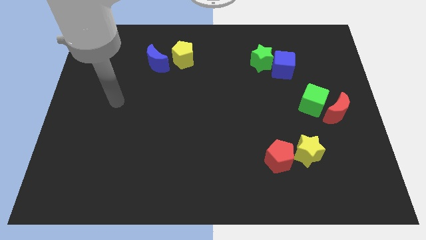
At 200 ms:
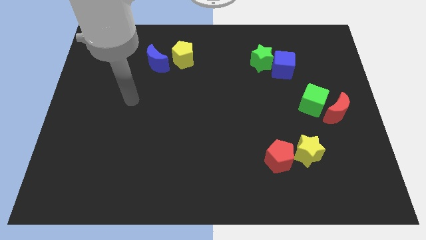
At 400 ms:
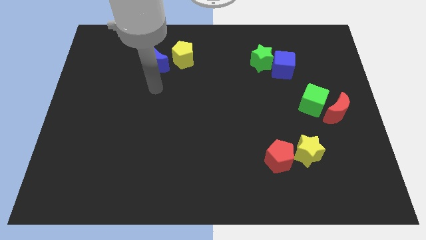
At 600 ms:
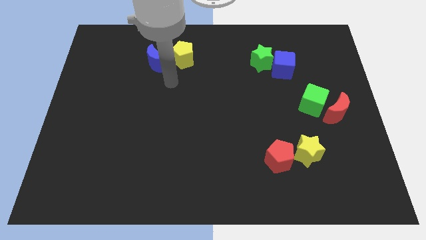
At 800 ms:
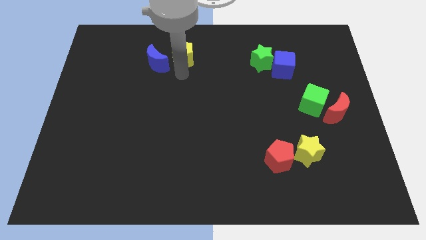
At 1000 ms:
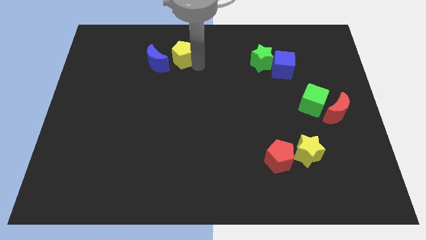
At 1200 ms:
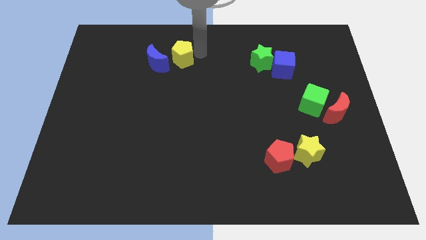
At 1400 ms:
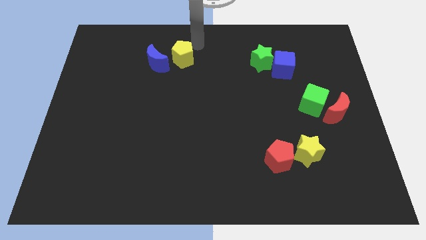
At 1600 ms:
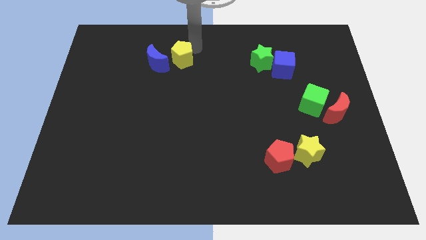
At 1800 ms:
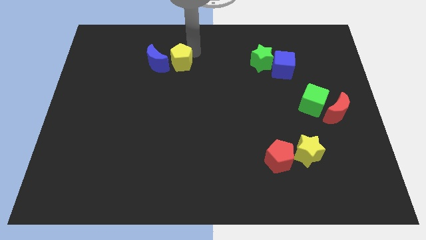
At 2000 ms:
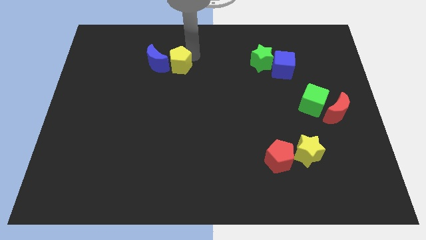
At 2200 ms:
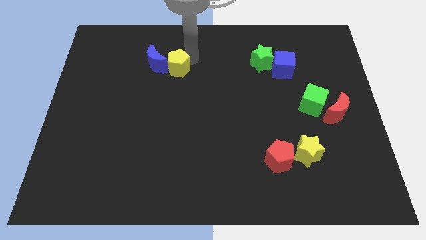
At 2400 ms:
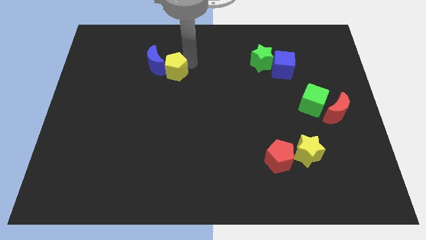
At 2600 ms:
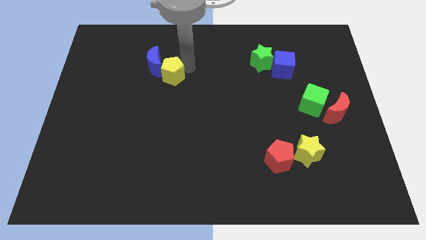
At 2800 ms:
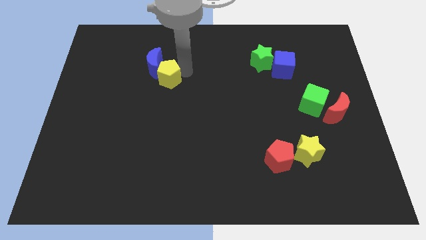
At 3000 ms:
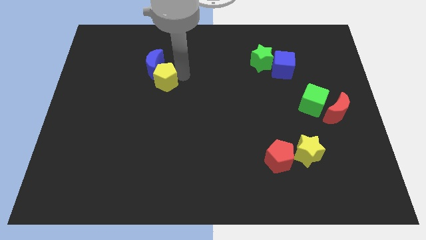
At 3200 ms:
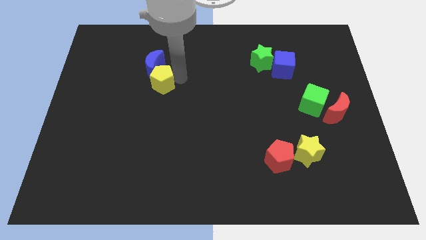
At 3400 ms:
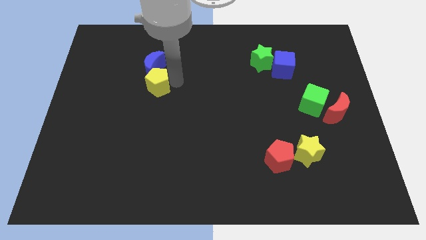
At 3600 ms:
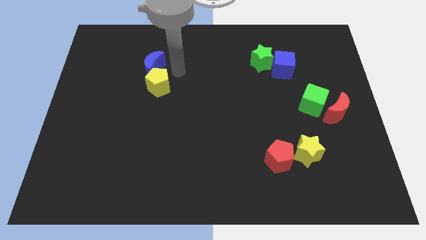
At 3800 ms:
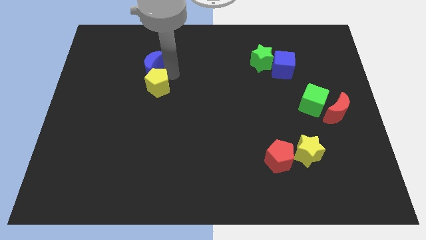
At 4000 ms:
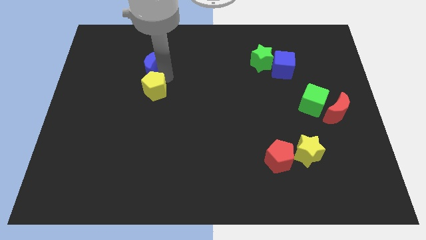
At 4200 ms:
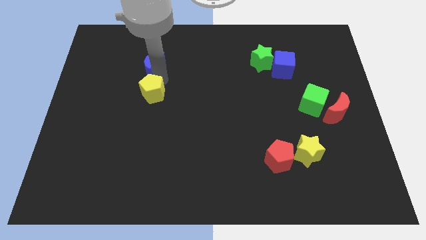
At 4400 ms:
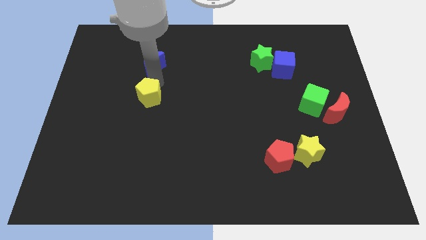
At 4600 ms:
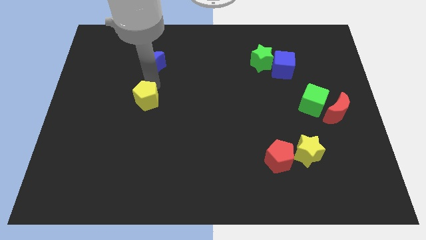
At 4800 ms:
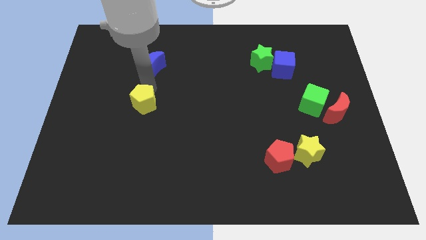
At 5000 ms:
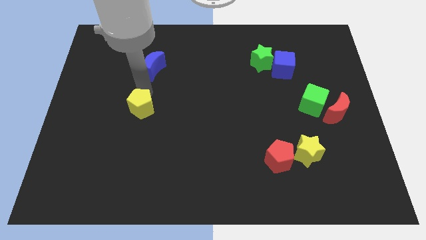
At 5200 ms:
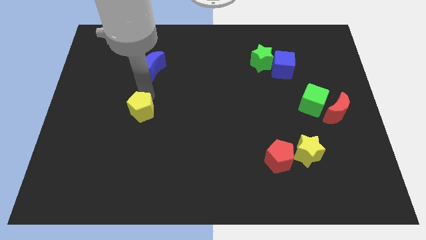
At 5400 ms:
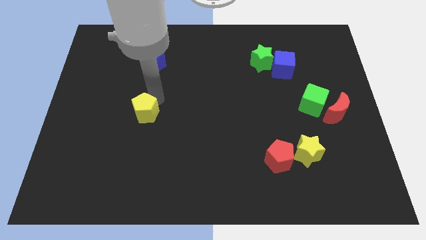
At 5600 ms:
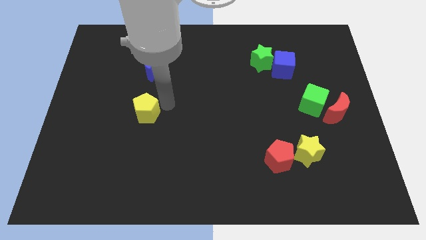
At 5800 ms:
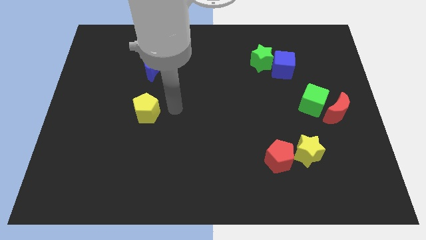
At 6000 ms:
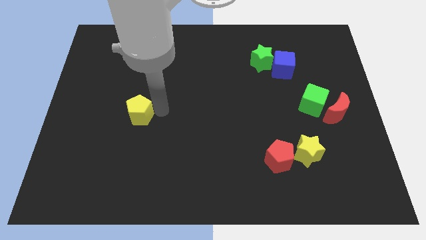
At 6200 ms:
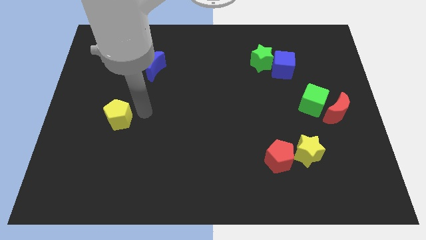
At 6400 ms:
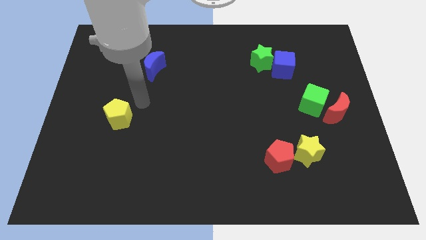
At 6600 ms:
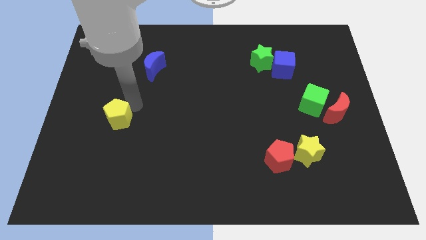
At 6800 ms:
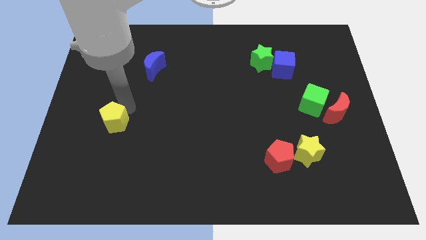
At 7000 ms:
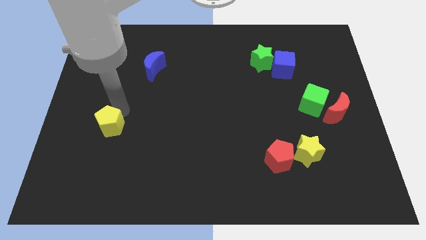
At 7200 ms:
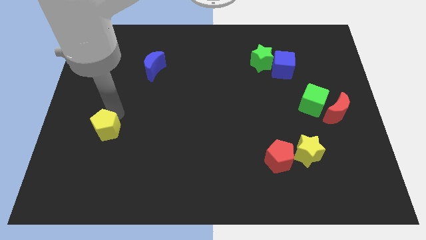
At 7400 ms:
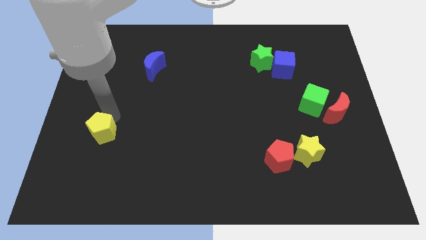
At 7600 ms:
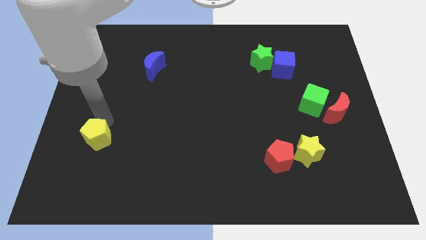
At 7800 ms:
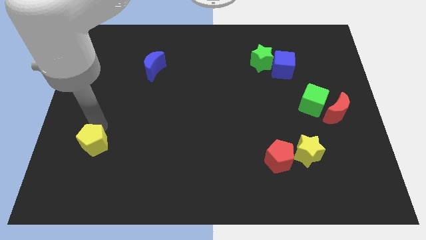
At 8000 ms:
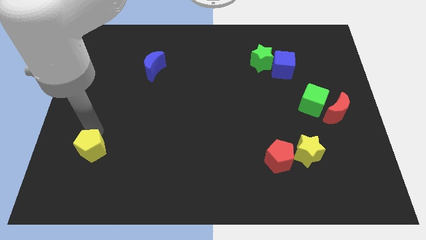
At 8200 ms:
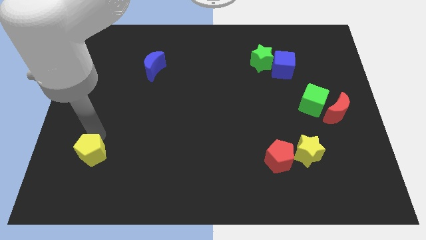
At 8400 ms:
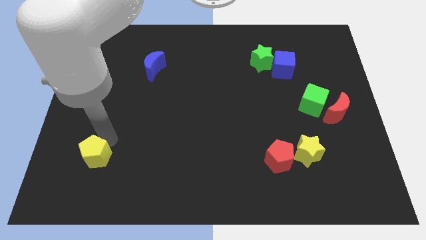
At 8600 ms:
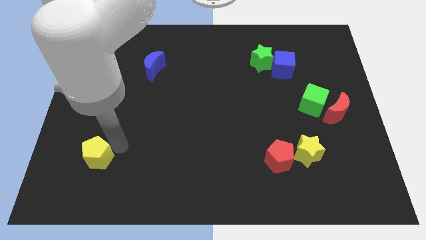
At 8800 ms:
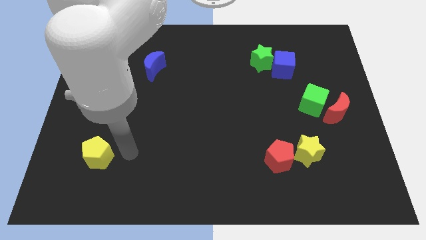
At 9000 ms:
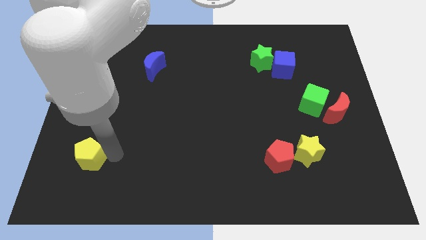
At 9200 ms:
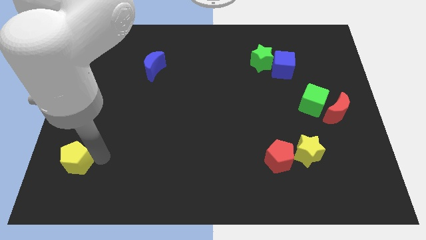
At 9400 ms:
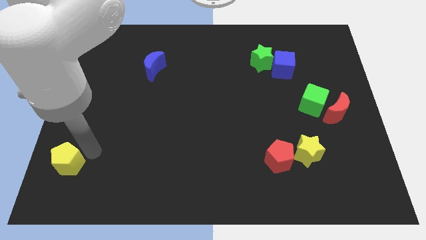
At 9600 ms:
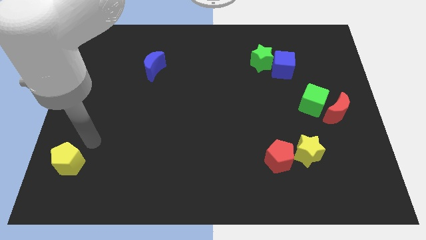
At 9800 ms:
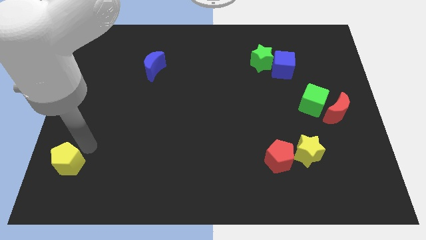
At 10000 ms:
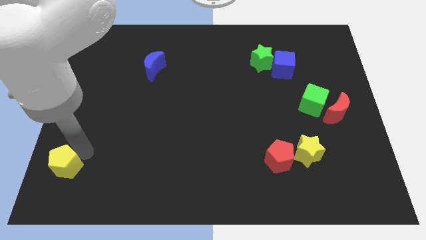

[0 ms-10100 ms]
put the yellow pentagon to the bottom left

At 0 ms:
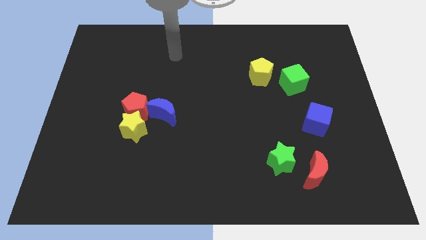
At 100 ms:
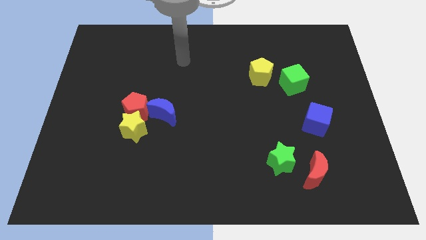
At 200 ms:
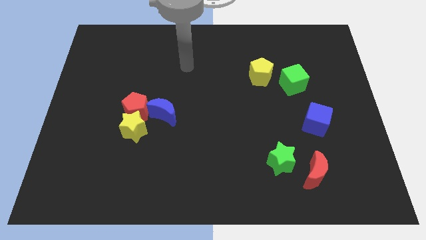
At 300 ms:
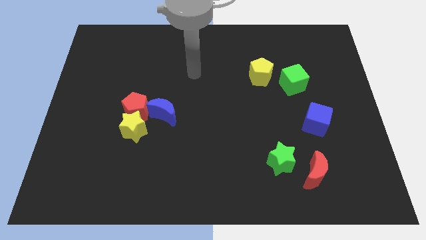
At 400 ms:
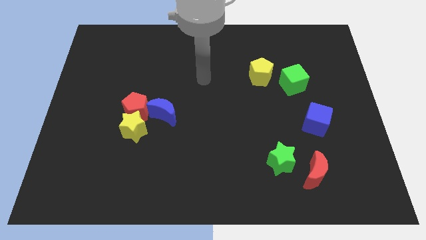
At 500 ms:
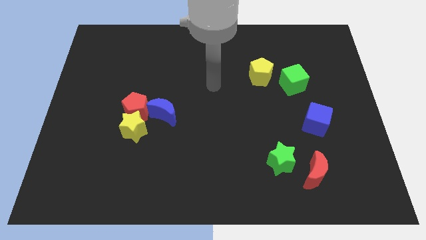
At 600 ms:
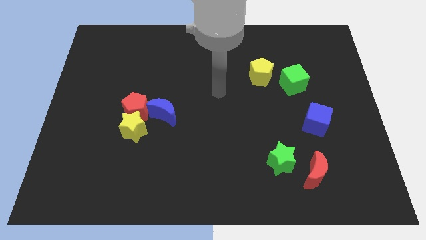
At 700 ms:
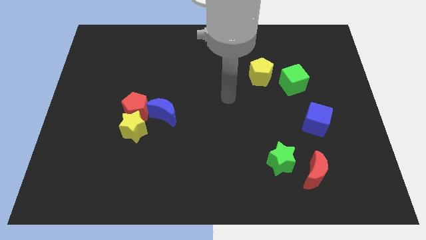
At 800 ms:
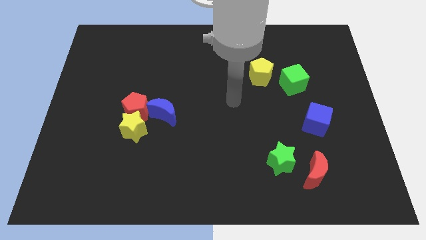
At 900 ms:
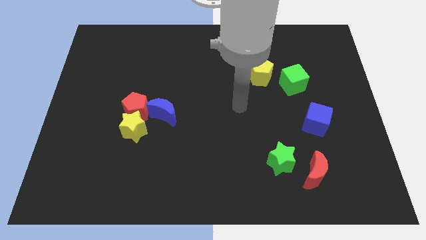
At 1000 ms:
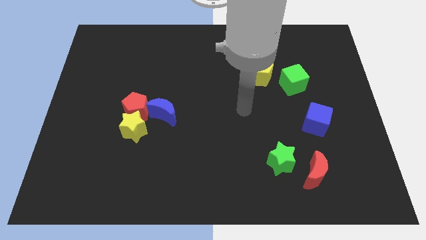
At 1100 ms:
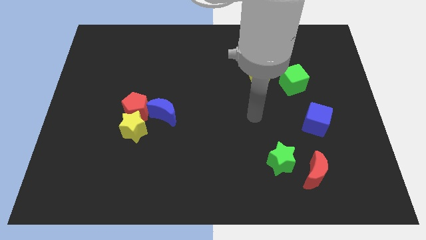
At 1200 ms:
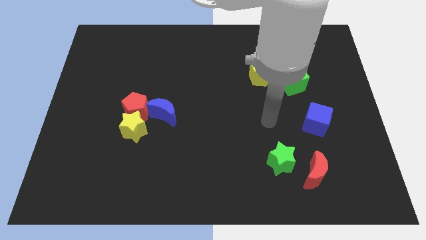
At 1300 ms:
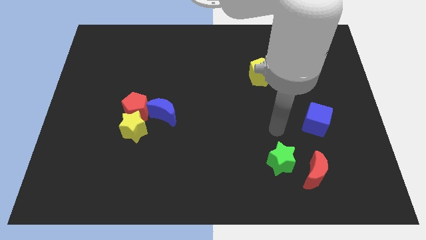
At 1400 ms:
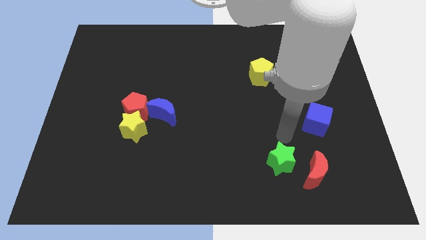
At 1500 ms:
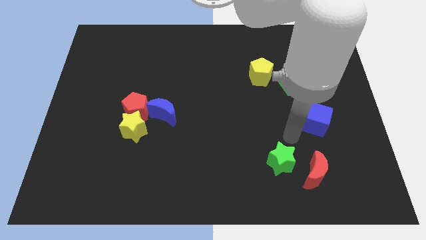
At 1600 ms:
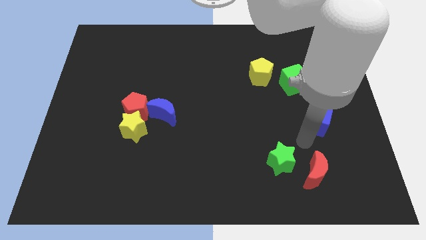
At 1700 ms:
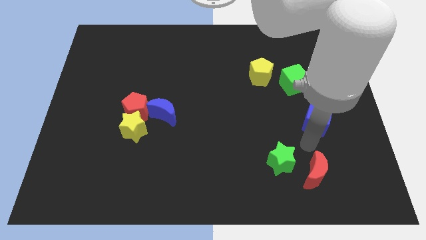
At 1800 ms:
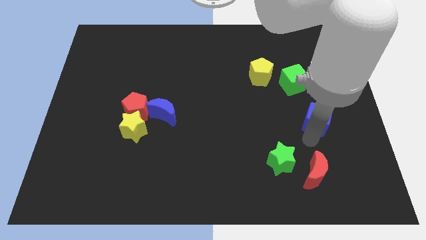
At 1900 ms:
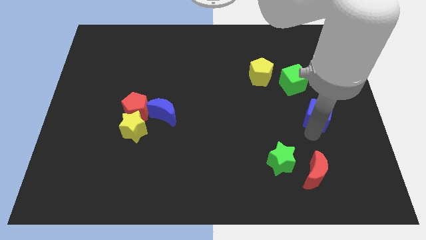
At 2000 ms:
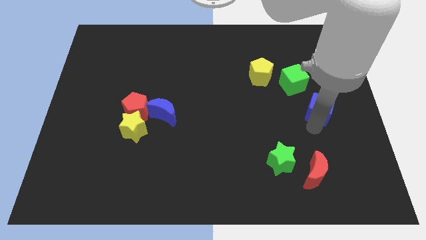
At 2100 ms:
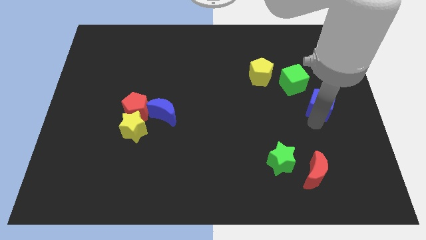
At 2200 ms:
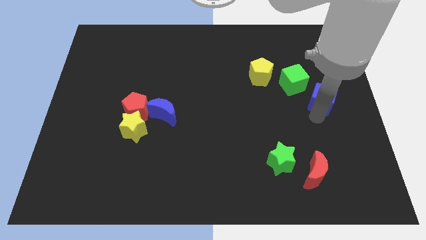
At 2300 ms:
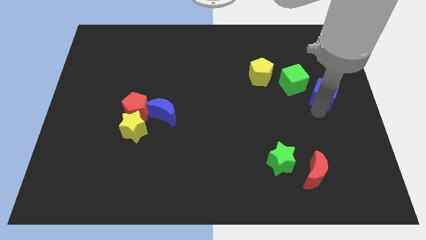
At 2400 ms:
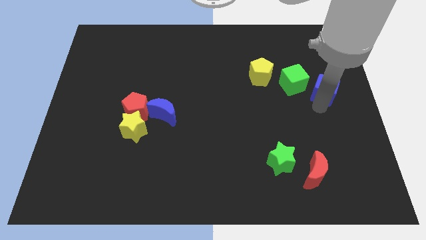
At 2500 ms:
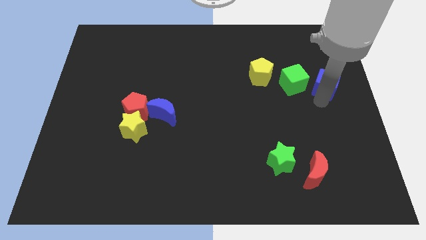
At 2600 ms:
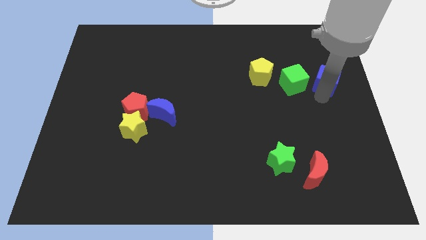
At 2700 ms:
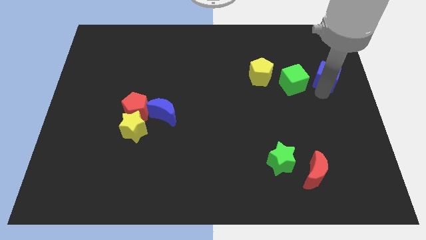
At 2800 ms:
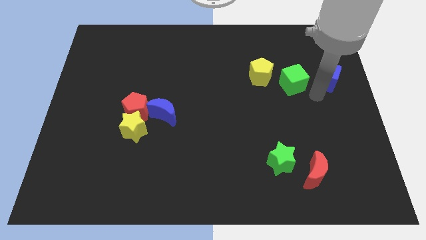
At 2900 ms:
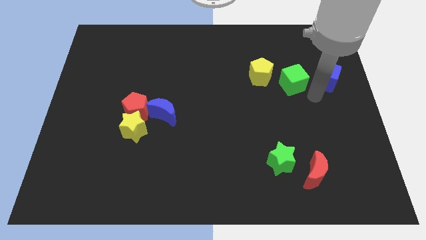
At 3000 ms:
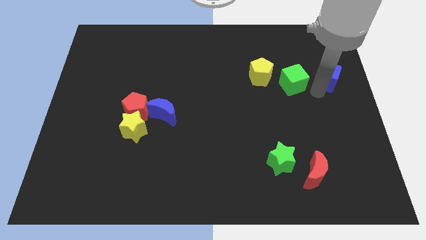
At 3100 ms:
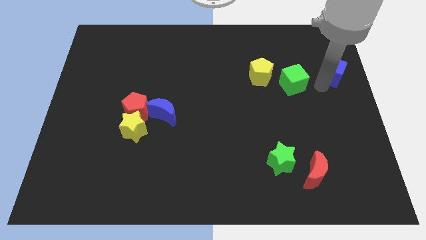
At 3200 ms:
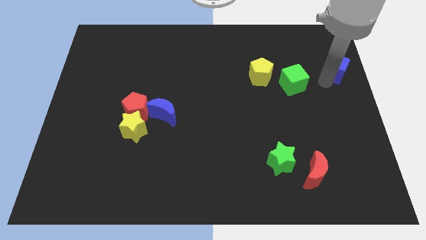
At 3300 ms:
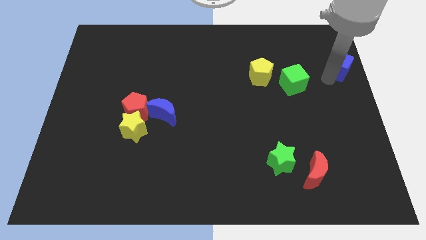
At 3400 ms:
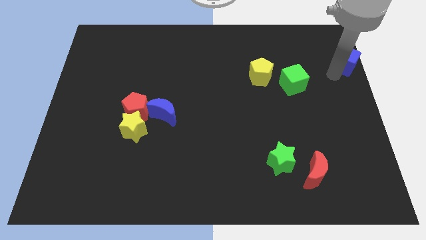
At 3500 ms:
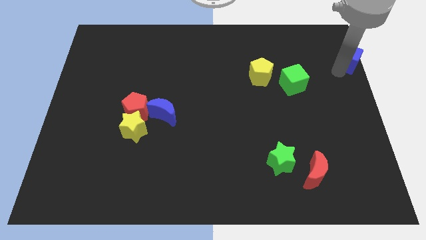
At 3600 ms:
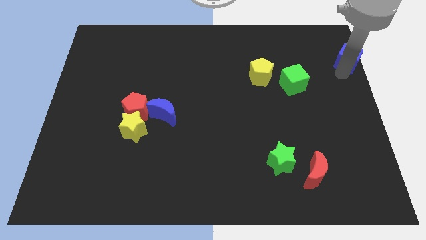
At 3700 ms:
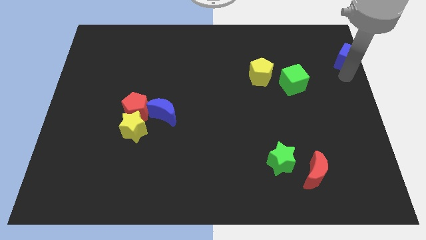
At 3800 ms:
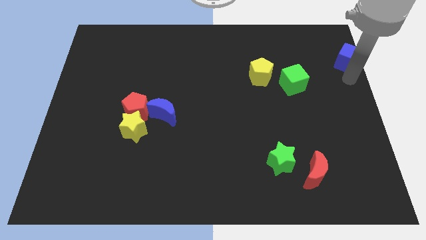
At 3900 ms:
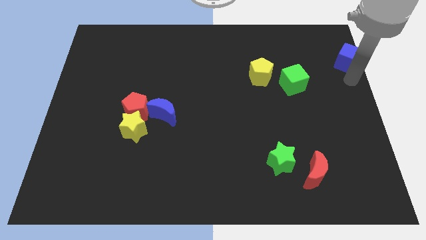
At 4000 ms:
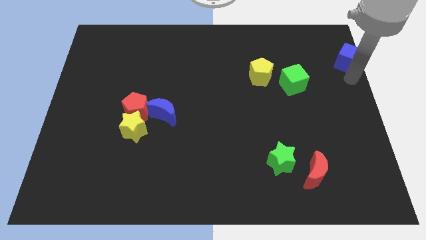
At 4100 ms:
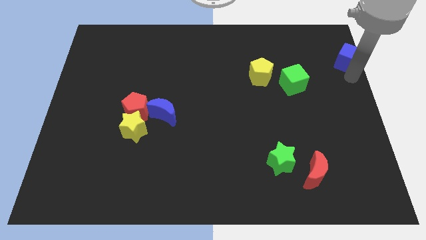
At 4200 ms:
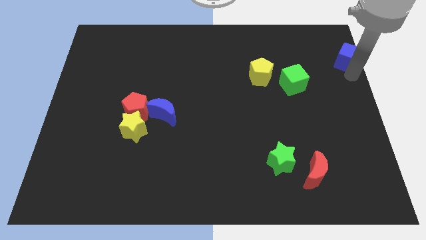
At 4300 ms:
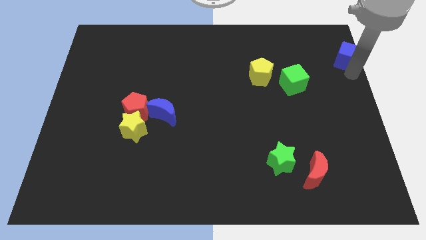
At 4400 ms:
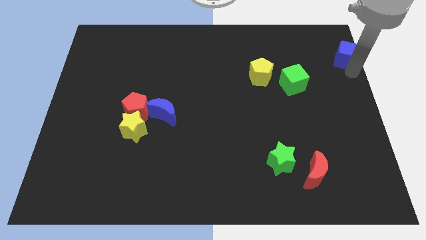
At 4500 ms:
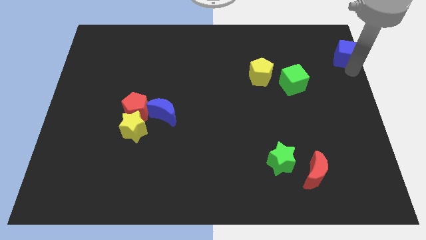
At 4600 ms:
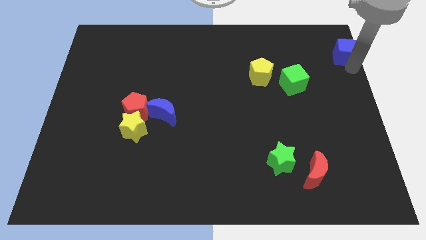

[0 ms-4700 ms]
push the blue cube to the upper right corner
